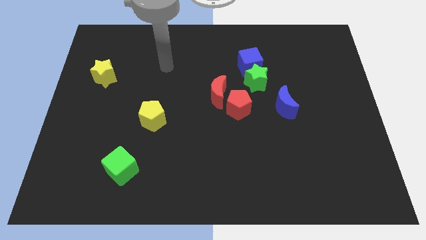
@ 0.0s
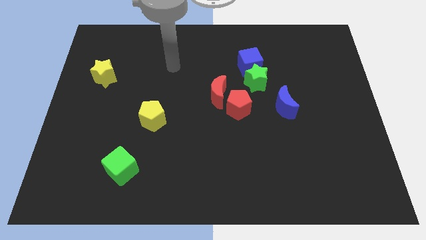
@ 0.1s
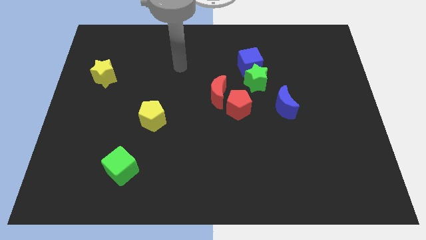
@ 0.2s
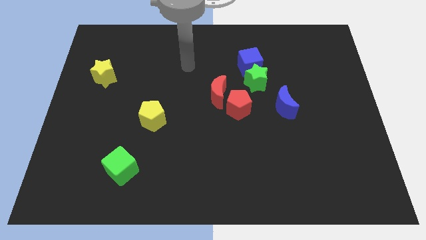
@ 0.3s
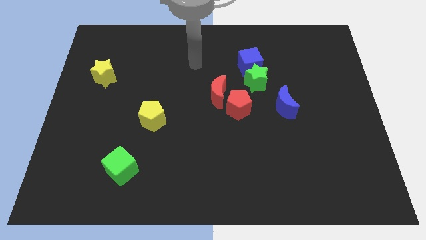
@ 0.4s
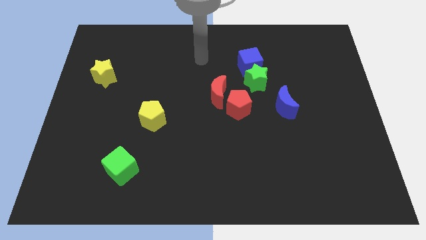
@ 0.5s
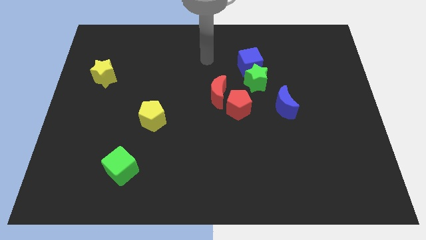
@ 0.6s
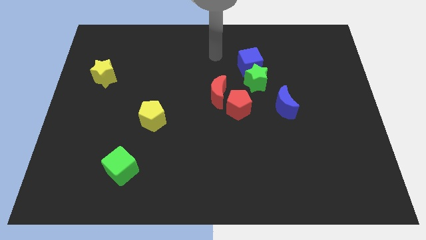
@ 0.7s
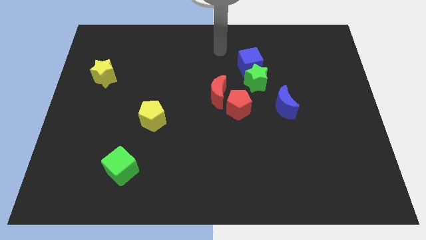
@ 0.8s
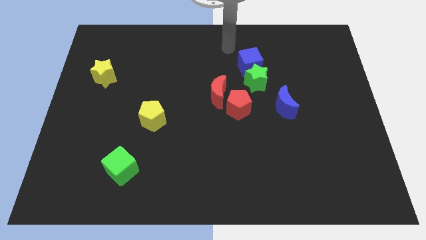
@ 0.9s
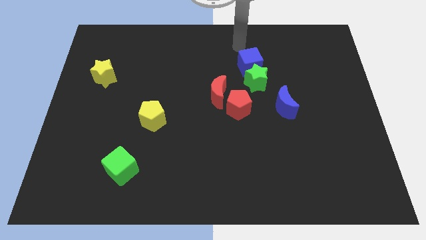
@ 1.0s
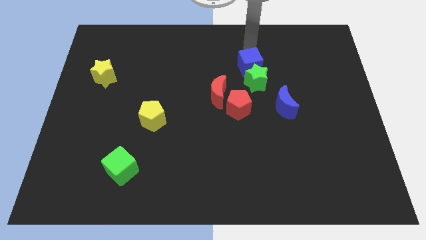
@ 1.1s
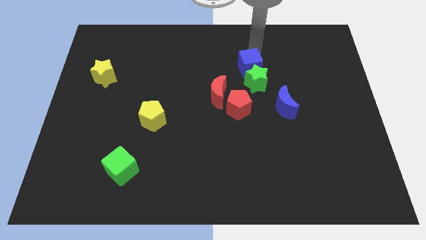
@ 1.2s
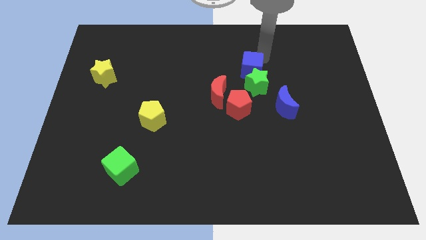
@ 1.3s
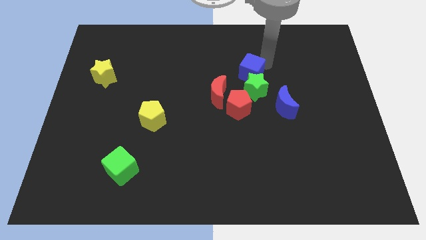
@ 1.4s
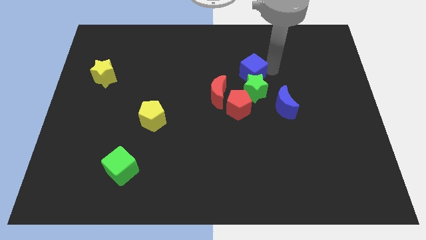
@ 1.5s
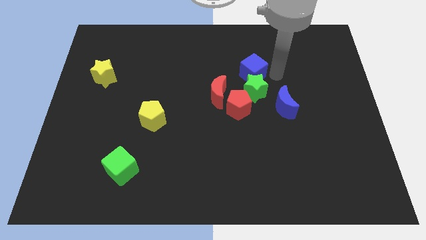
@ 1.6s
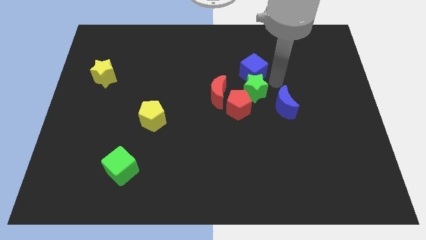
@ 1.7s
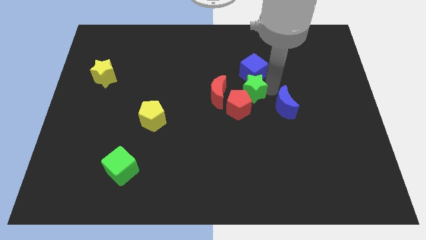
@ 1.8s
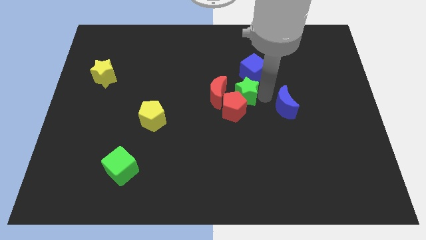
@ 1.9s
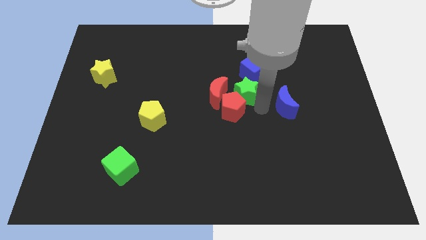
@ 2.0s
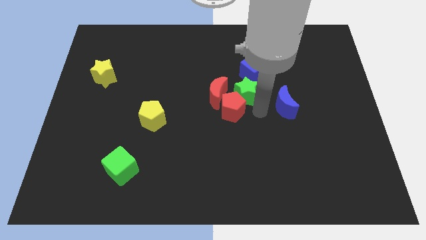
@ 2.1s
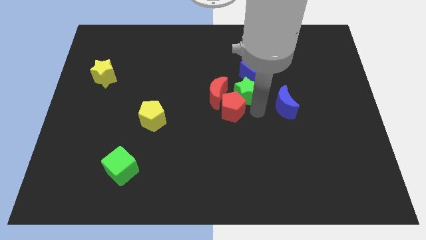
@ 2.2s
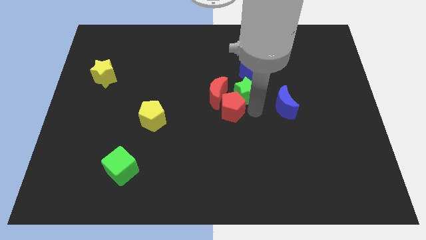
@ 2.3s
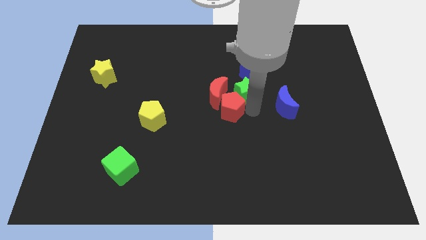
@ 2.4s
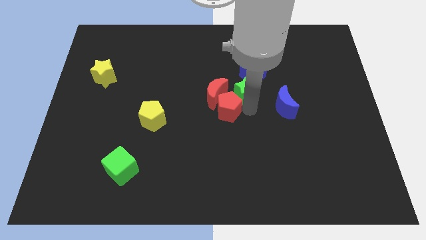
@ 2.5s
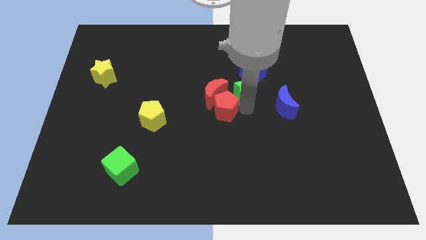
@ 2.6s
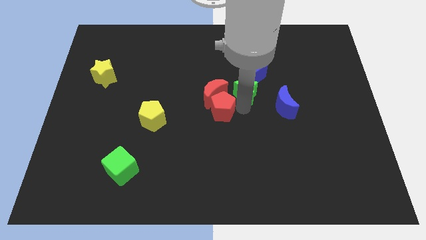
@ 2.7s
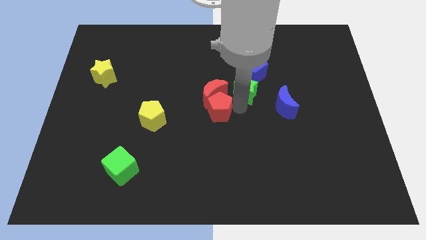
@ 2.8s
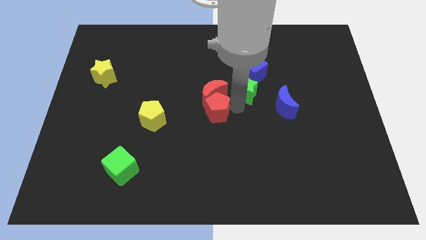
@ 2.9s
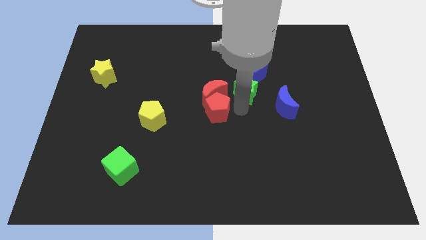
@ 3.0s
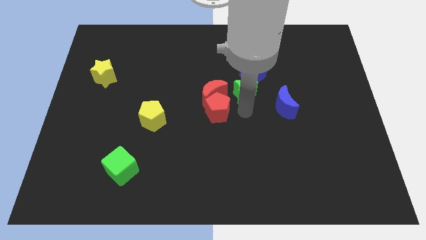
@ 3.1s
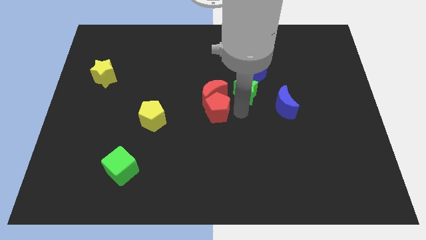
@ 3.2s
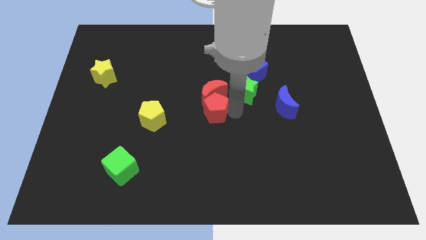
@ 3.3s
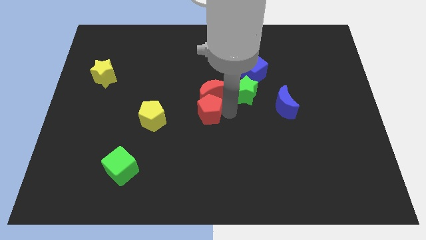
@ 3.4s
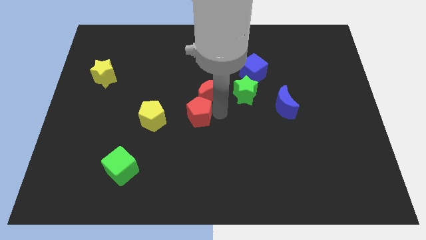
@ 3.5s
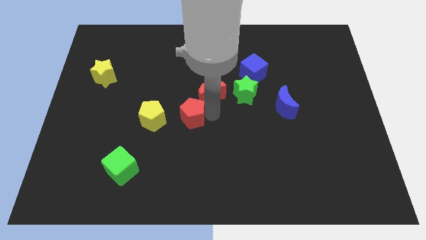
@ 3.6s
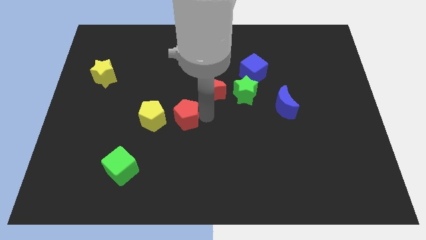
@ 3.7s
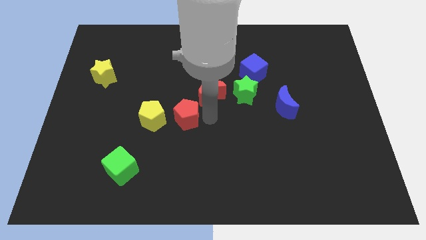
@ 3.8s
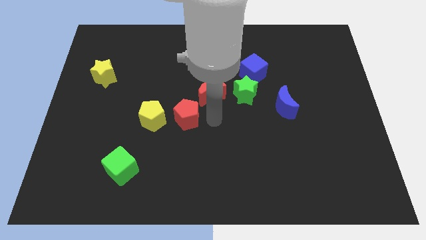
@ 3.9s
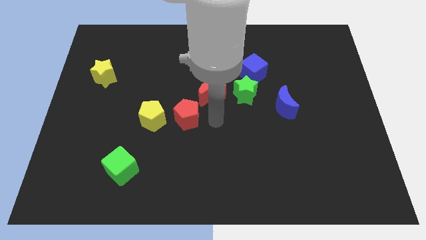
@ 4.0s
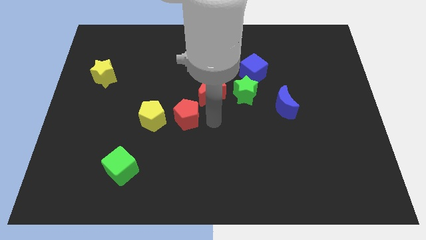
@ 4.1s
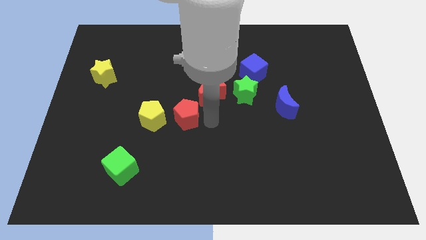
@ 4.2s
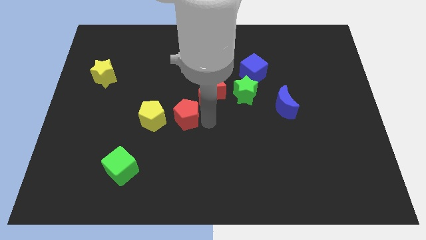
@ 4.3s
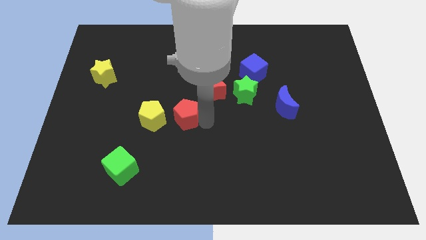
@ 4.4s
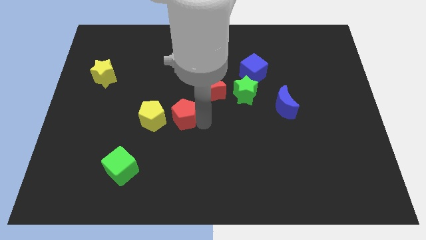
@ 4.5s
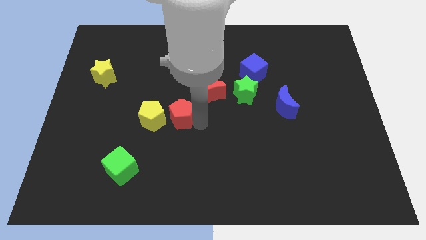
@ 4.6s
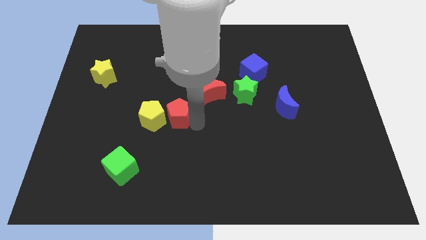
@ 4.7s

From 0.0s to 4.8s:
push the red pentagon next to the yellow pentagon

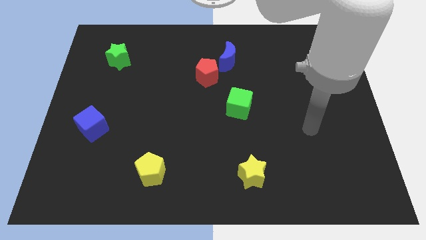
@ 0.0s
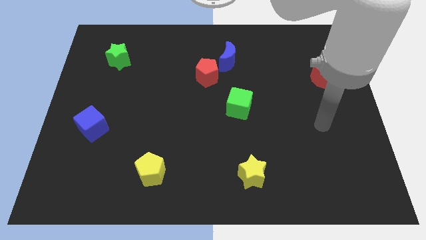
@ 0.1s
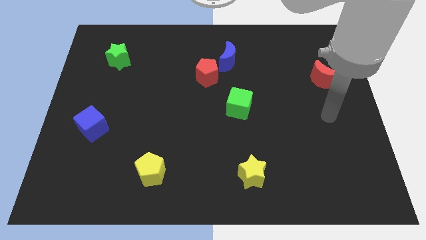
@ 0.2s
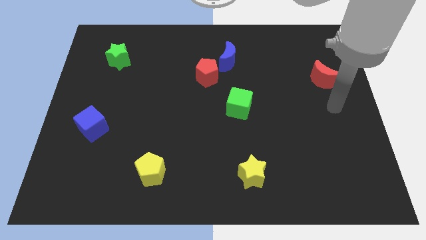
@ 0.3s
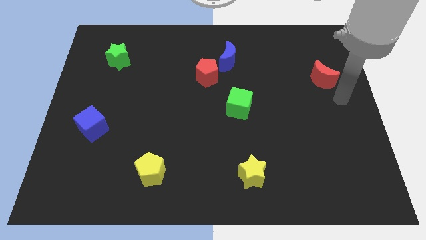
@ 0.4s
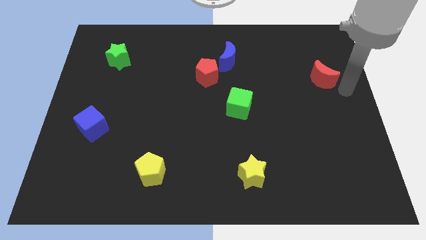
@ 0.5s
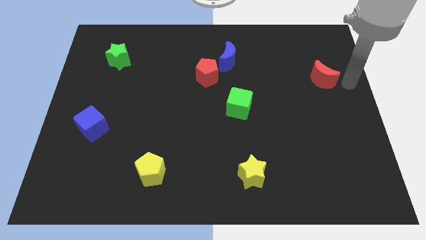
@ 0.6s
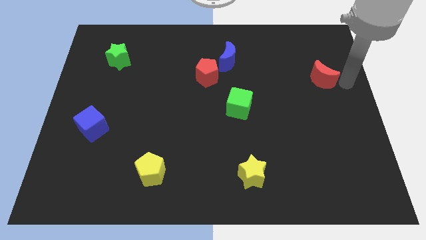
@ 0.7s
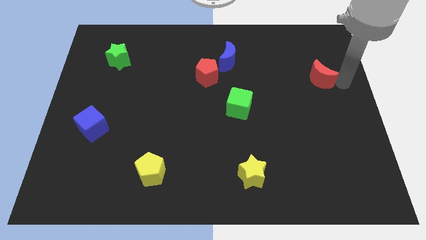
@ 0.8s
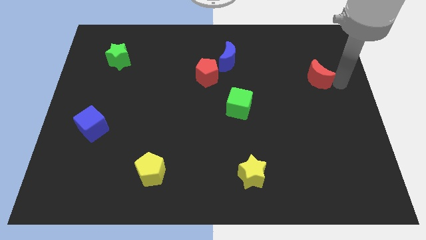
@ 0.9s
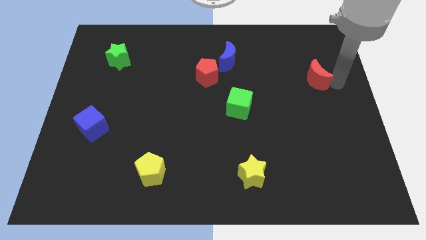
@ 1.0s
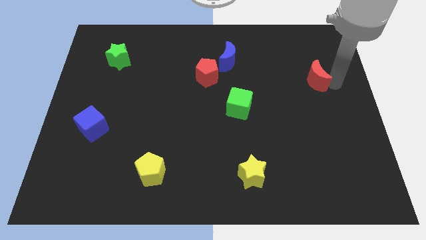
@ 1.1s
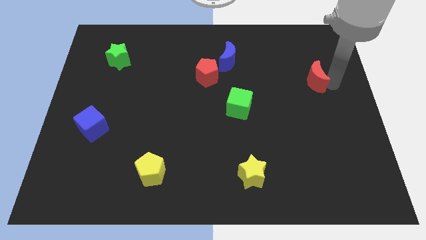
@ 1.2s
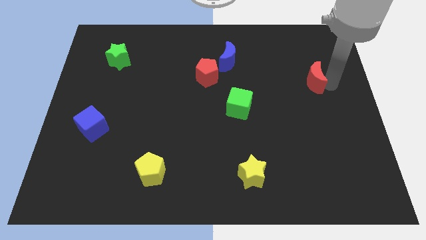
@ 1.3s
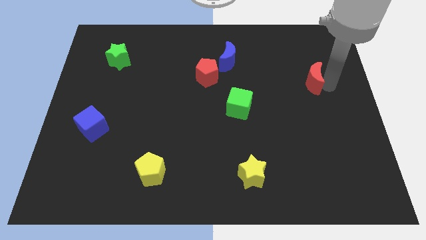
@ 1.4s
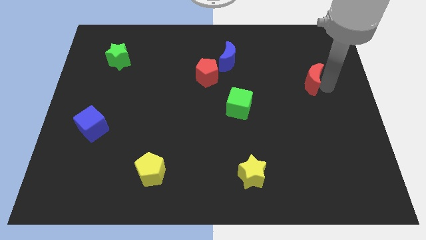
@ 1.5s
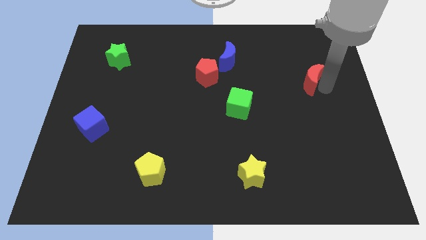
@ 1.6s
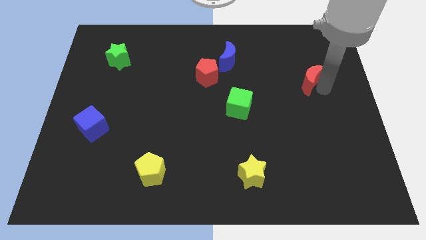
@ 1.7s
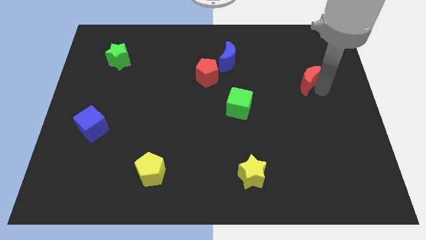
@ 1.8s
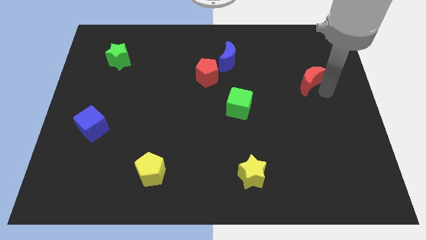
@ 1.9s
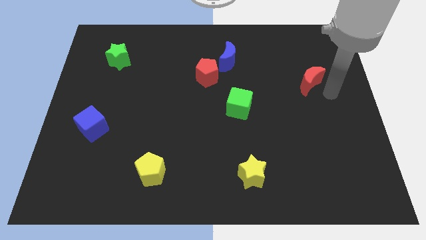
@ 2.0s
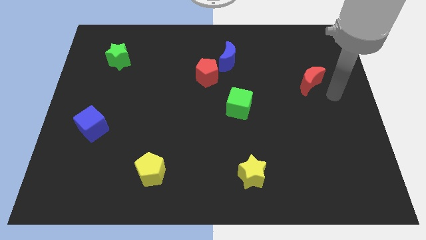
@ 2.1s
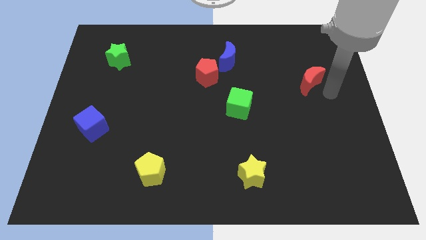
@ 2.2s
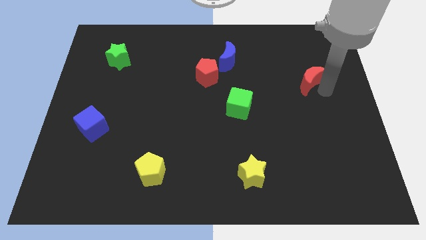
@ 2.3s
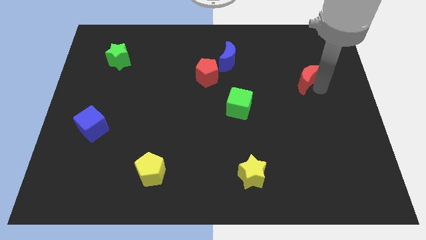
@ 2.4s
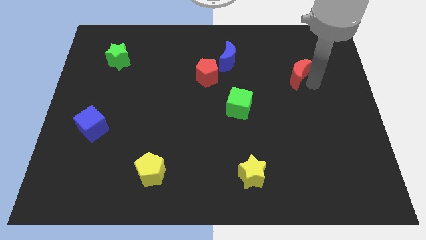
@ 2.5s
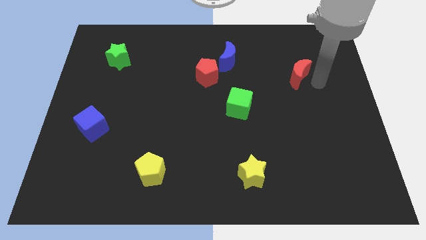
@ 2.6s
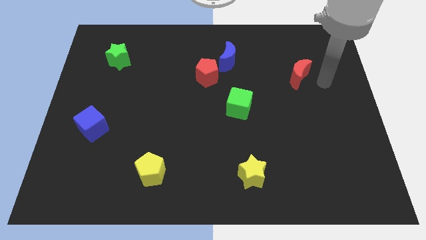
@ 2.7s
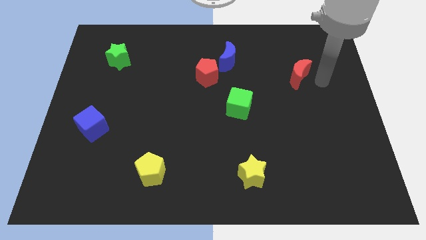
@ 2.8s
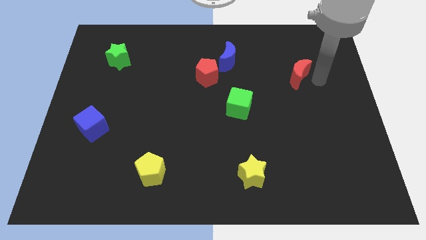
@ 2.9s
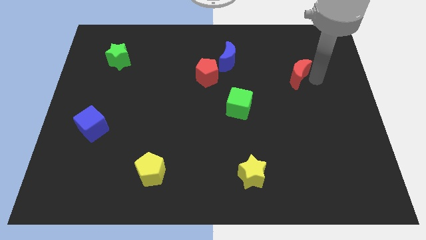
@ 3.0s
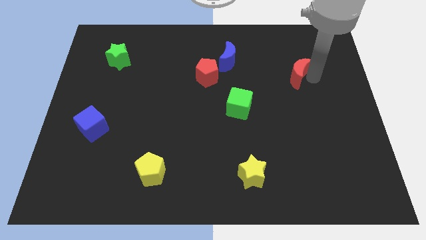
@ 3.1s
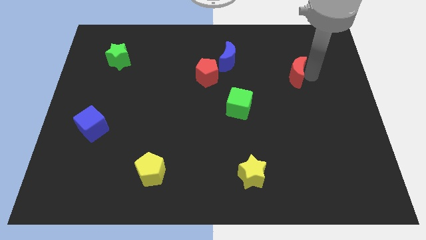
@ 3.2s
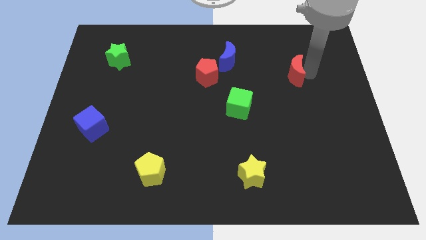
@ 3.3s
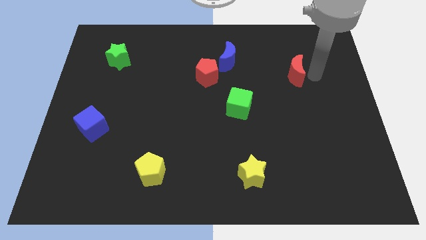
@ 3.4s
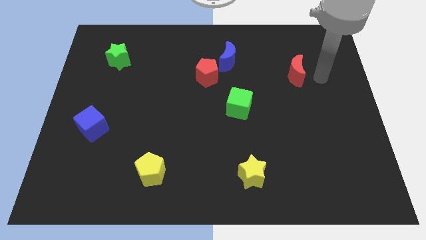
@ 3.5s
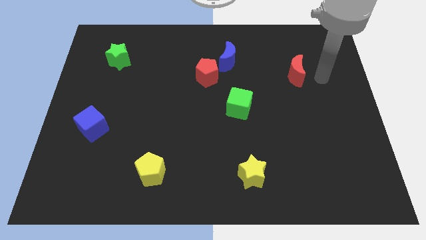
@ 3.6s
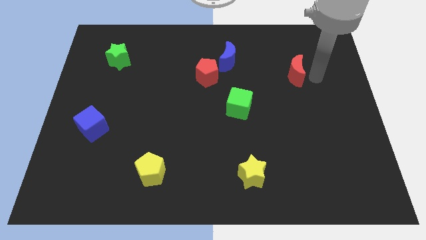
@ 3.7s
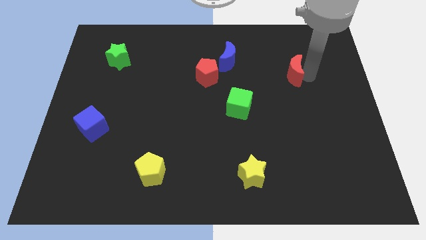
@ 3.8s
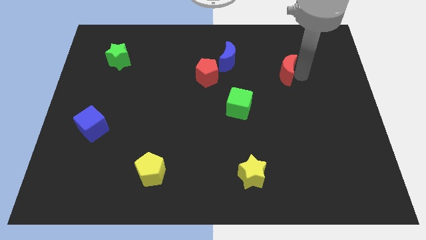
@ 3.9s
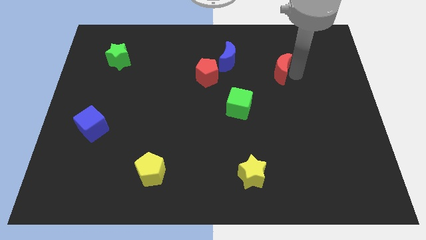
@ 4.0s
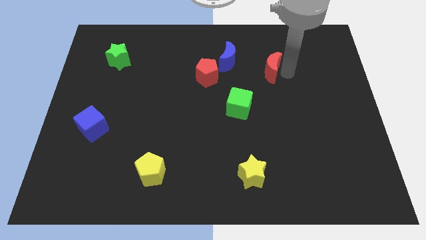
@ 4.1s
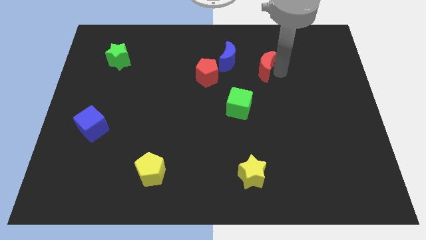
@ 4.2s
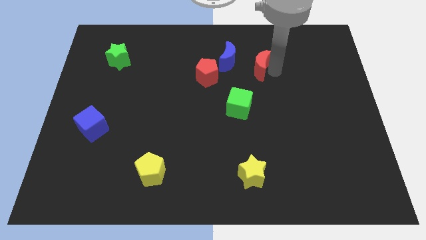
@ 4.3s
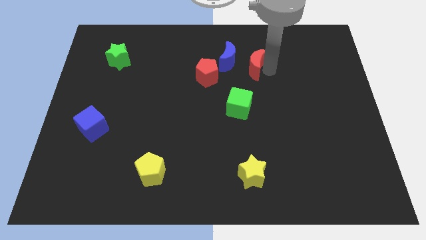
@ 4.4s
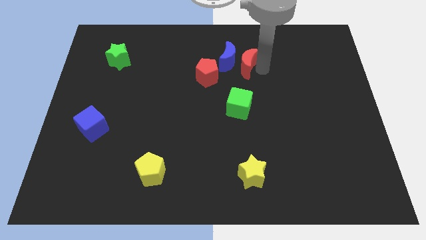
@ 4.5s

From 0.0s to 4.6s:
slide the red moon to the blue moon
